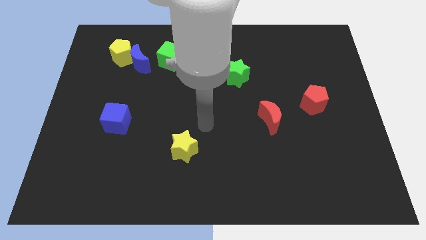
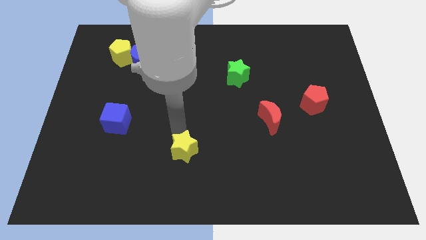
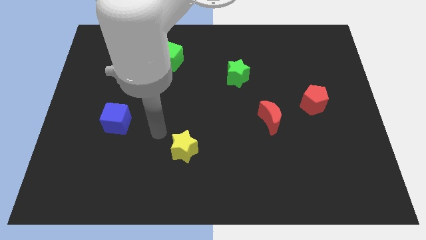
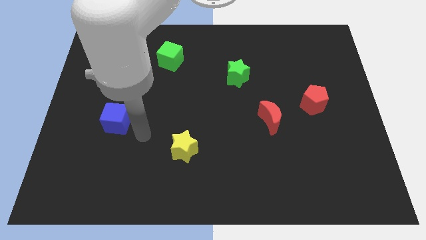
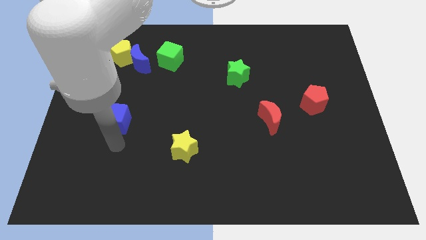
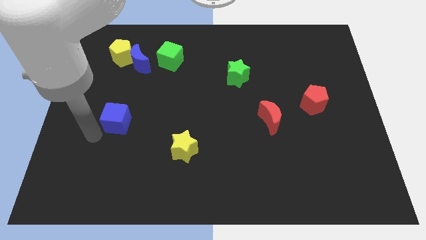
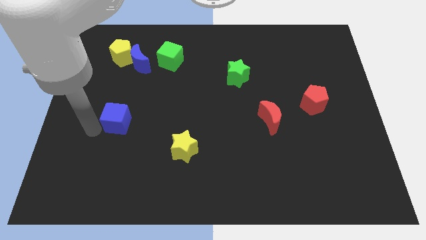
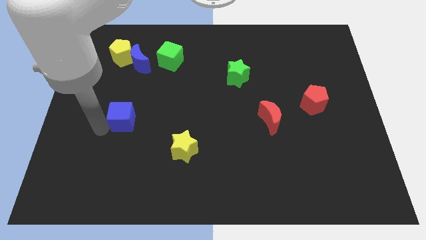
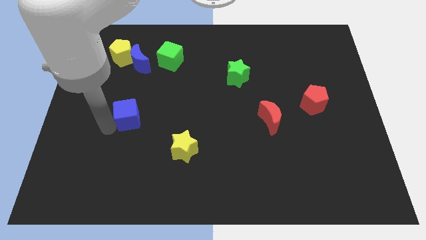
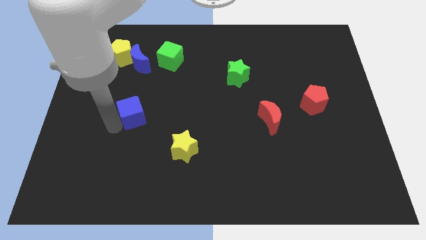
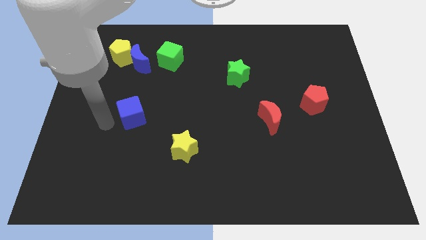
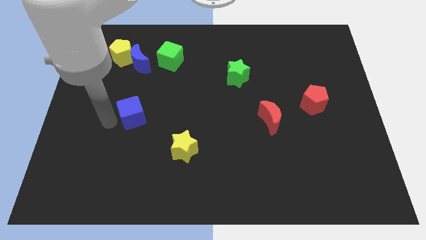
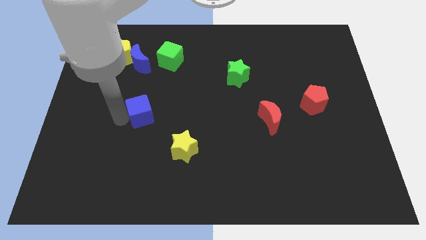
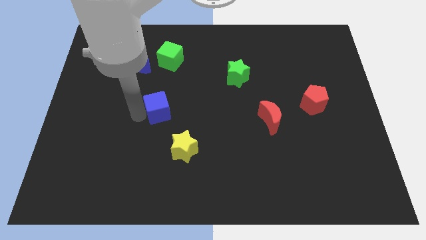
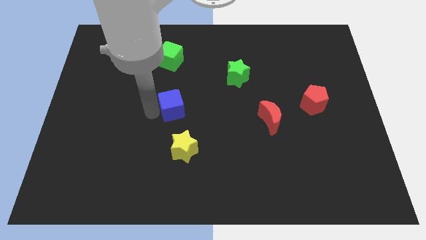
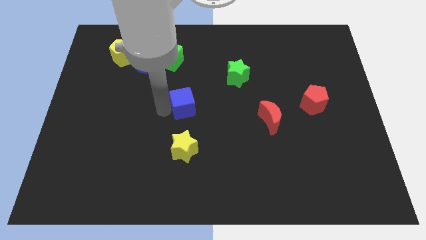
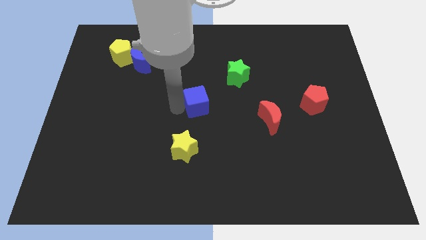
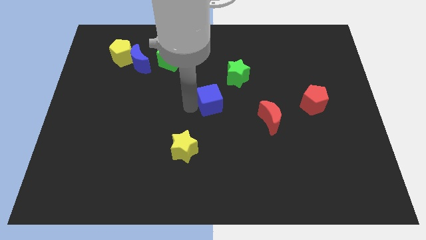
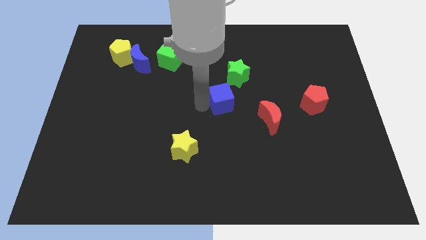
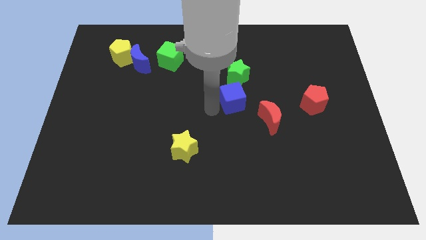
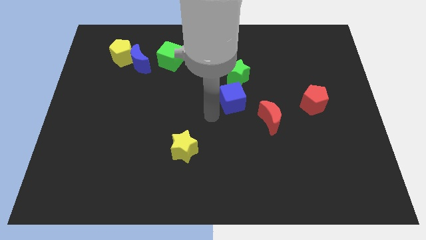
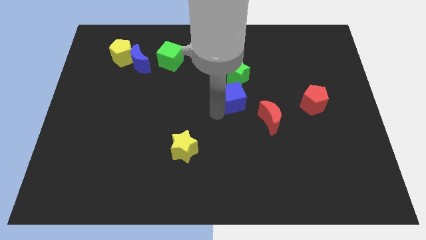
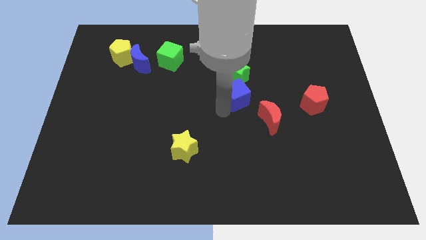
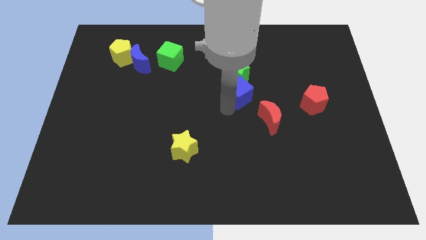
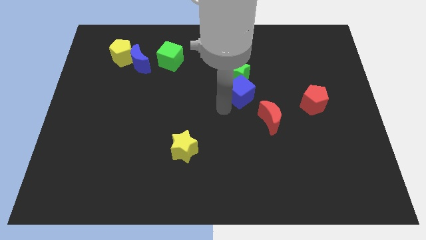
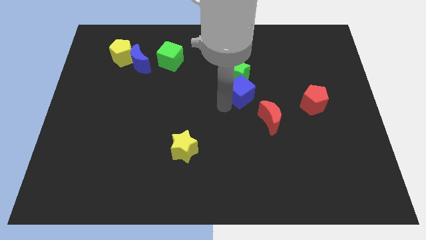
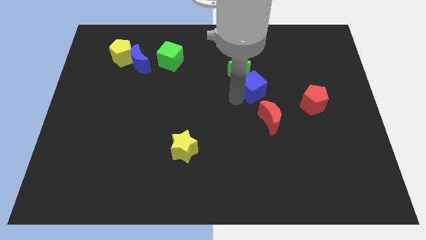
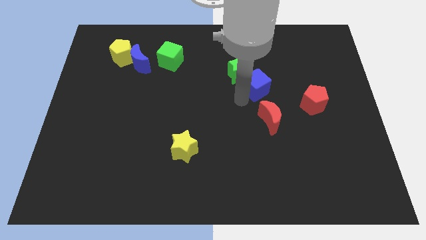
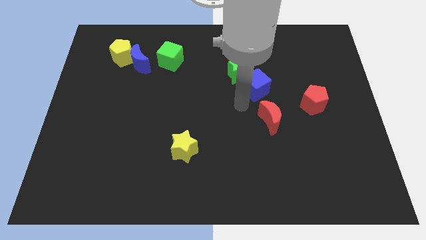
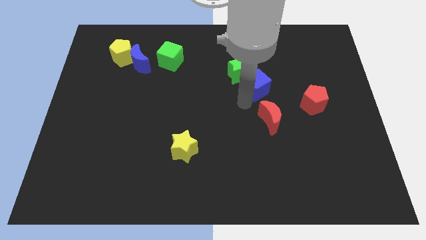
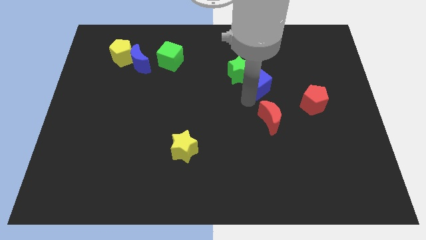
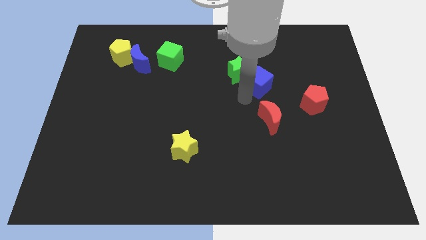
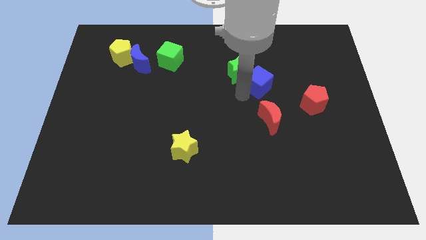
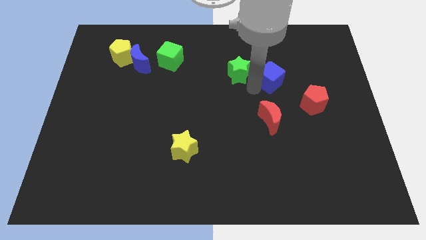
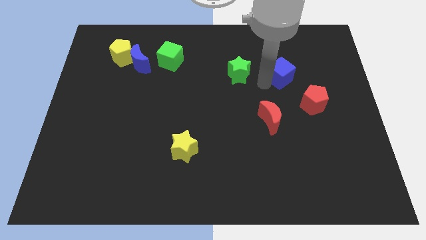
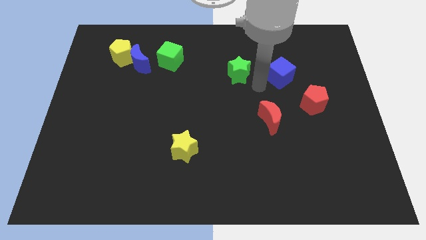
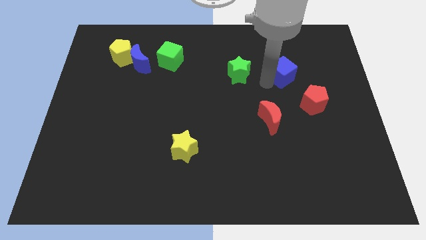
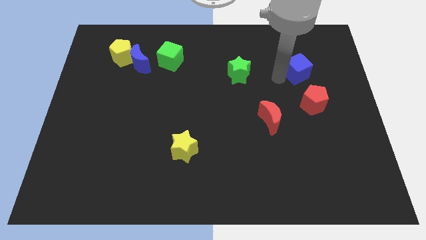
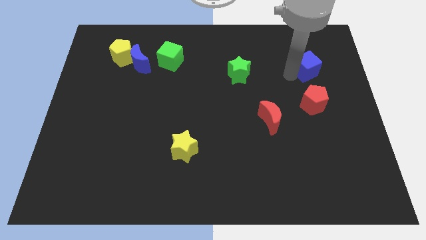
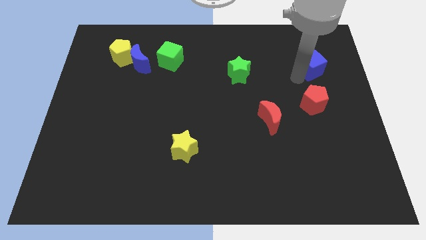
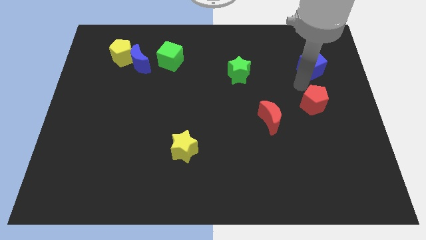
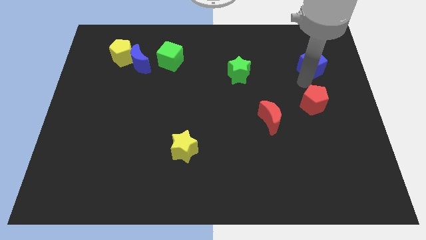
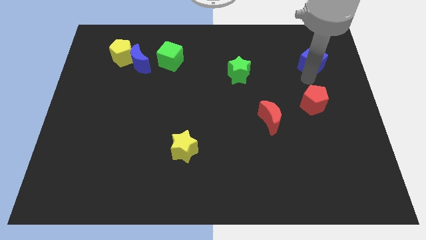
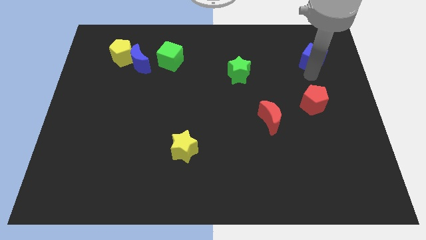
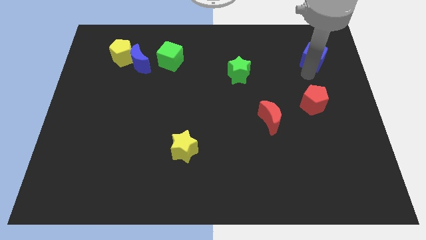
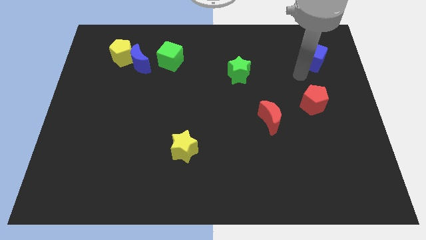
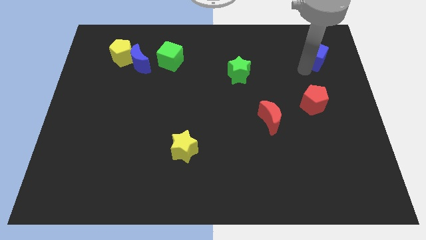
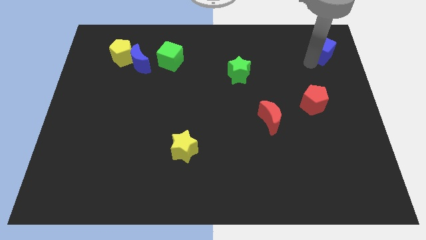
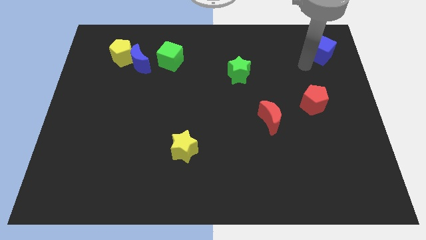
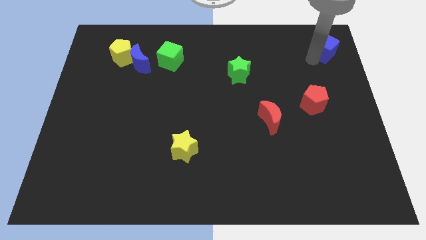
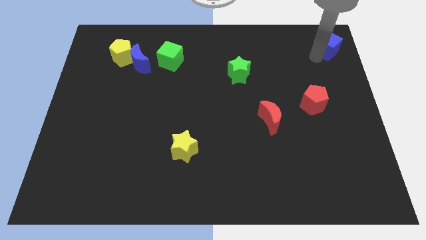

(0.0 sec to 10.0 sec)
put the blue cube to the upper right corner

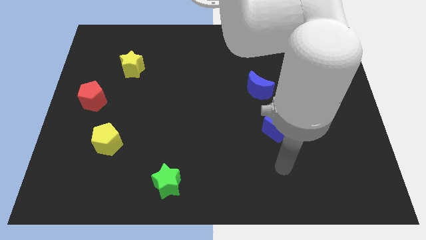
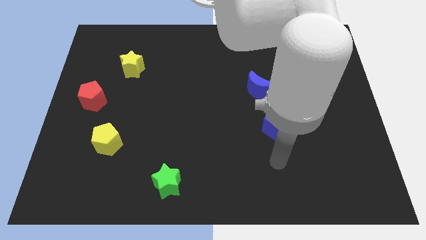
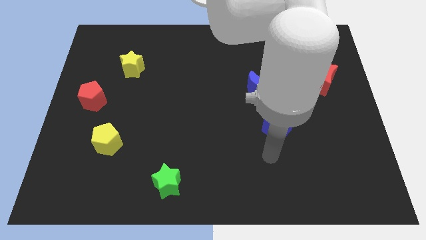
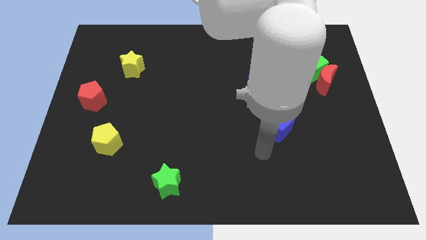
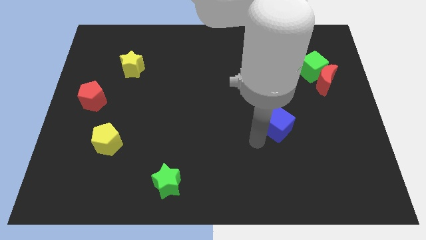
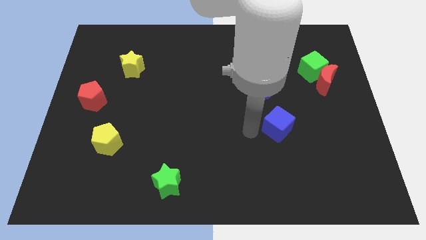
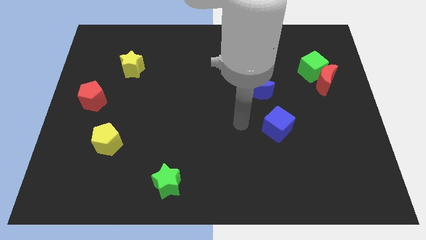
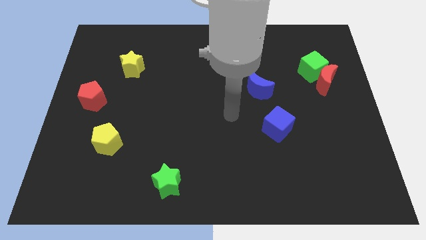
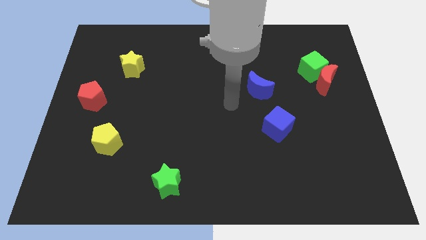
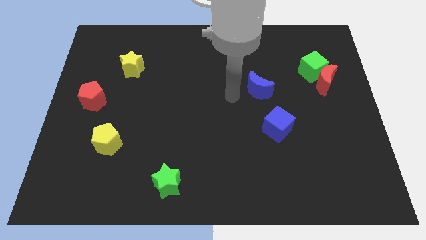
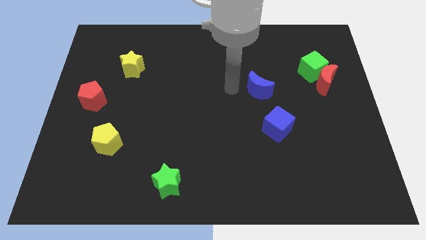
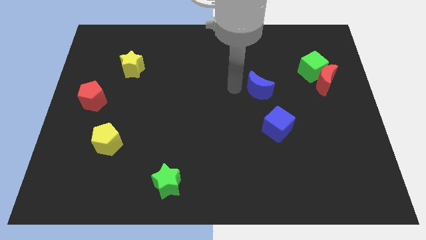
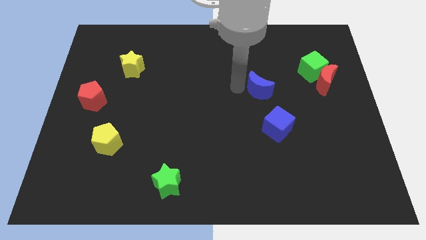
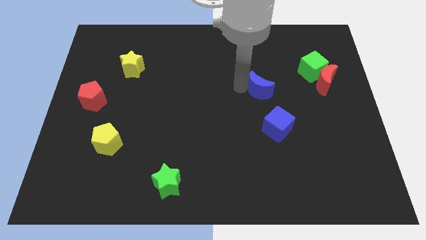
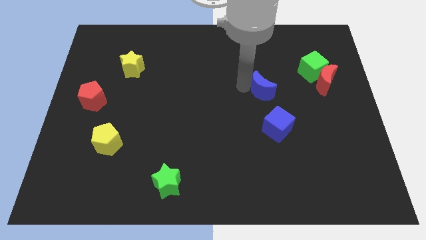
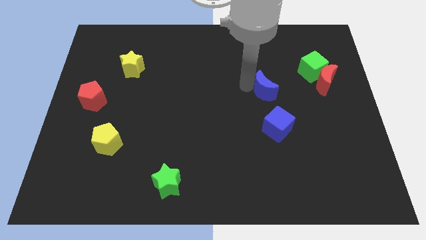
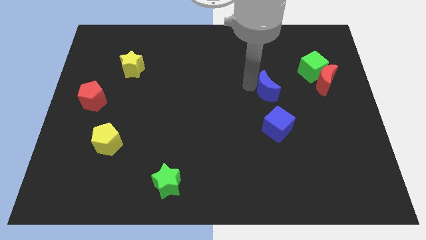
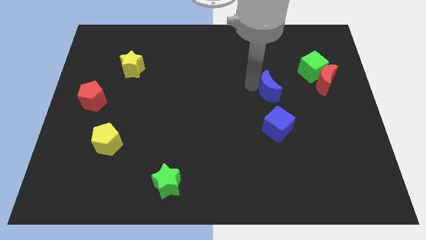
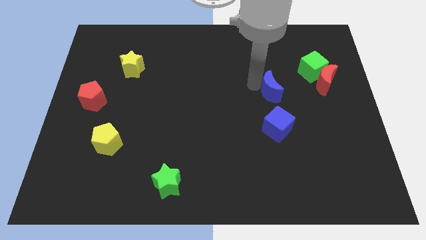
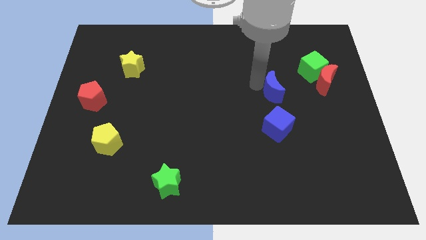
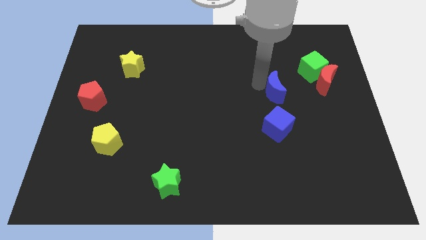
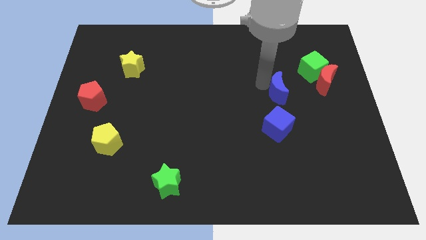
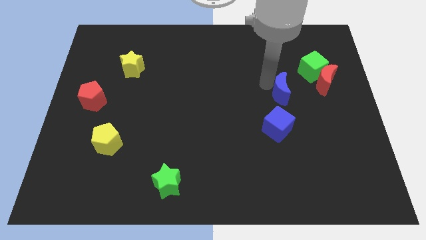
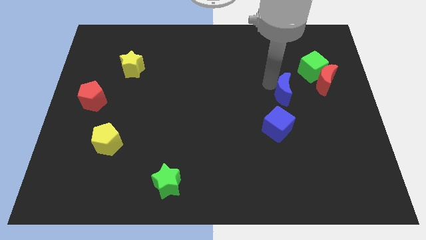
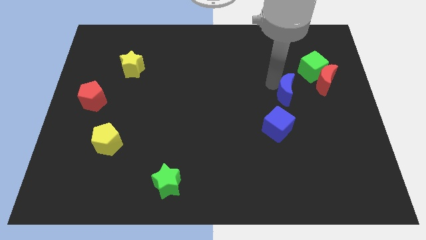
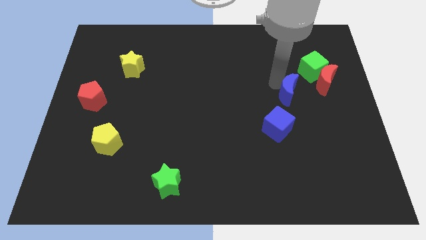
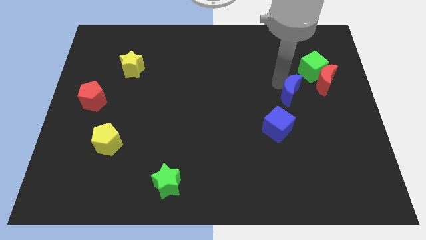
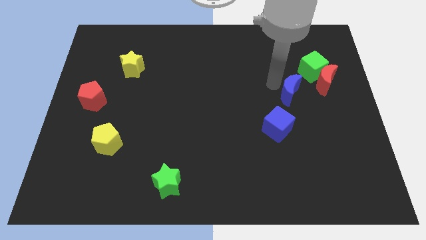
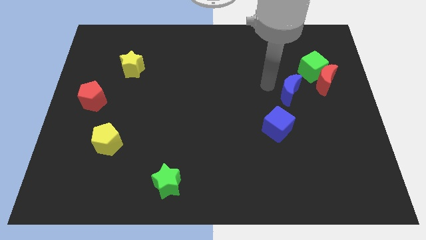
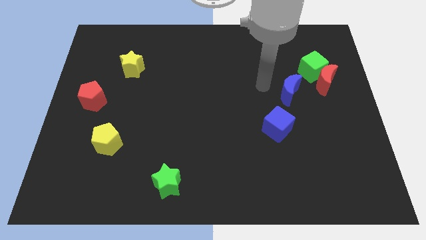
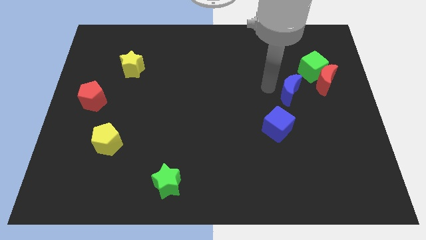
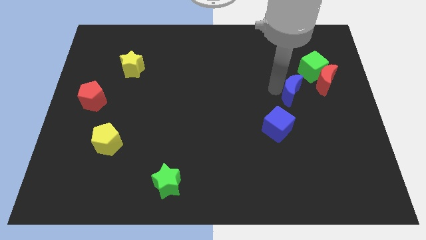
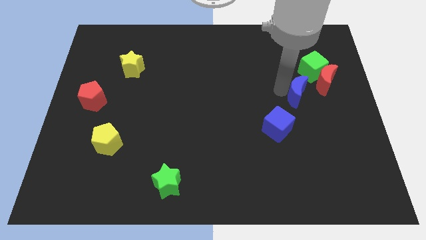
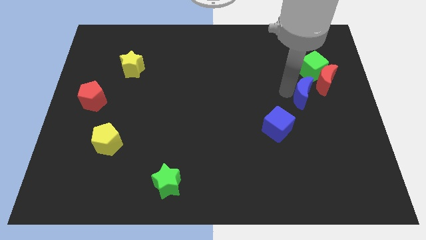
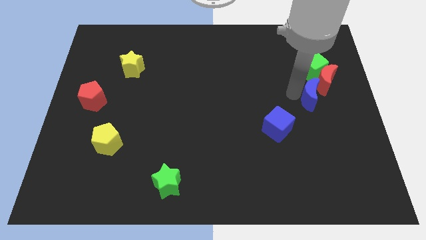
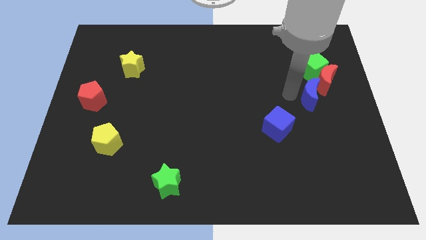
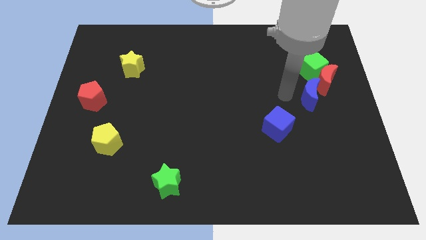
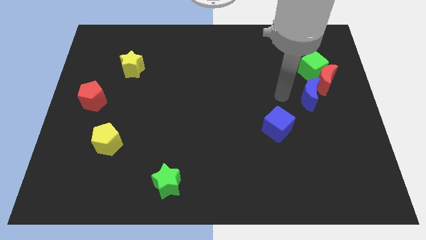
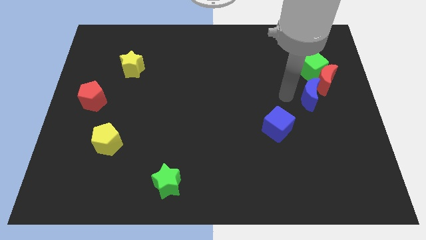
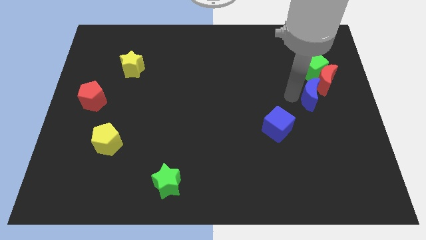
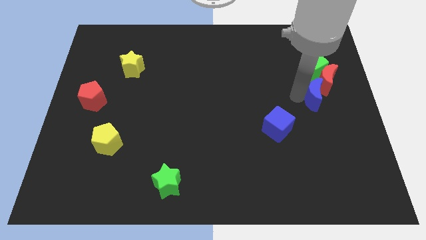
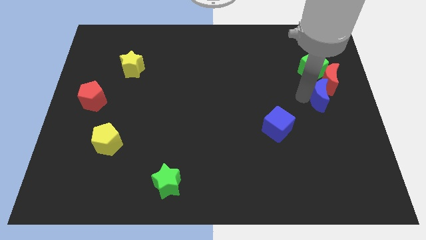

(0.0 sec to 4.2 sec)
push the blue moon to the right side
